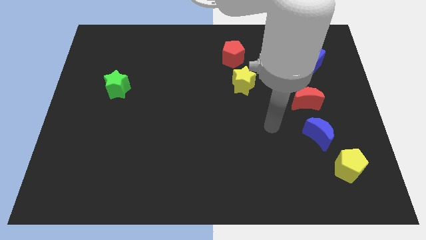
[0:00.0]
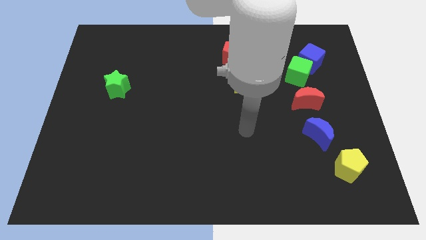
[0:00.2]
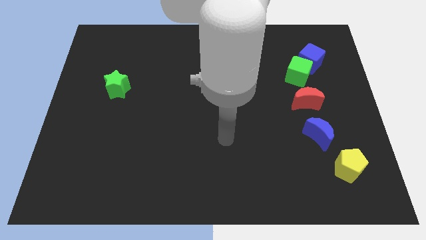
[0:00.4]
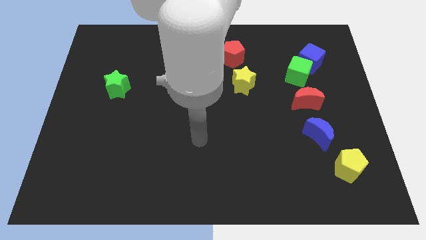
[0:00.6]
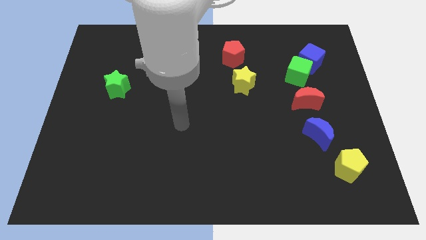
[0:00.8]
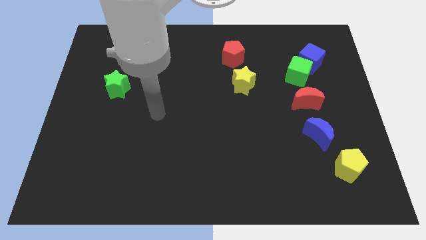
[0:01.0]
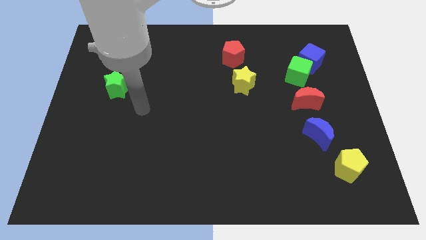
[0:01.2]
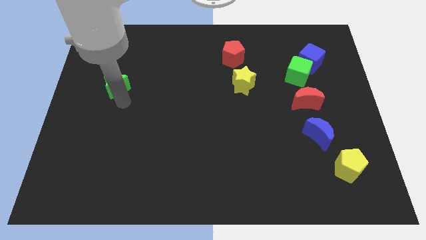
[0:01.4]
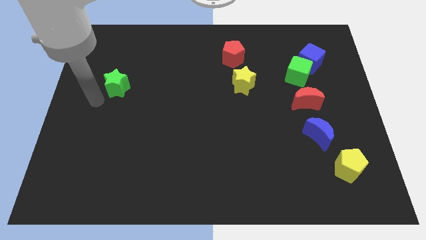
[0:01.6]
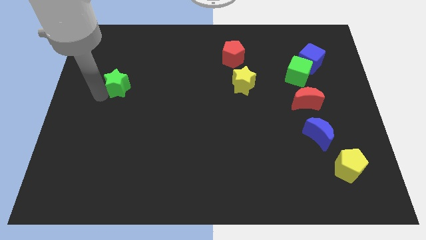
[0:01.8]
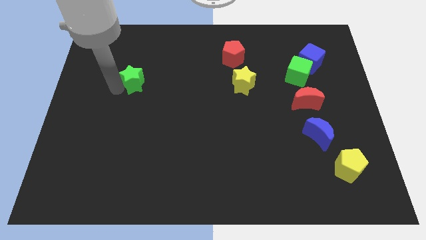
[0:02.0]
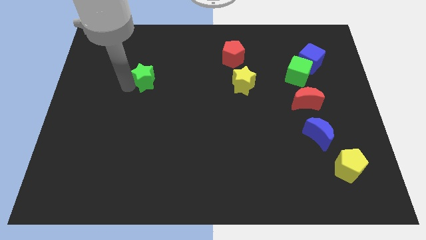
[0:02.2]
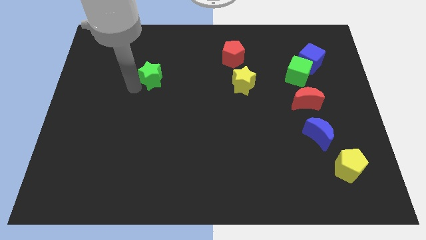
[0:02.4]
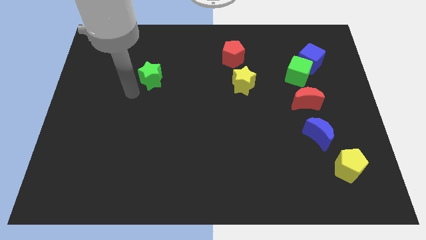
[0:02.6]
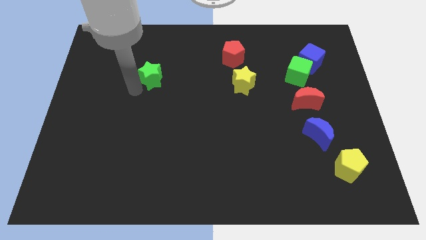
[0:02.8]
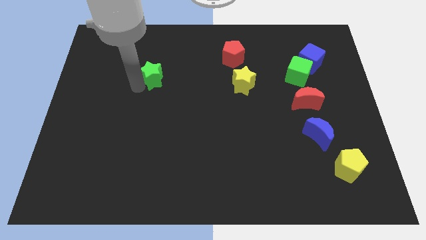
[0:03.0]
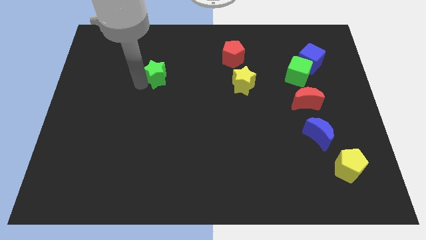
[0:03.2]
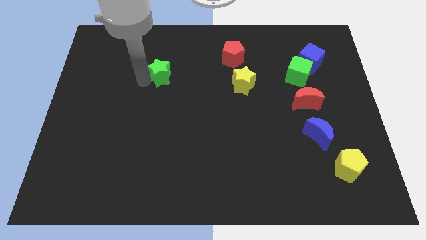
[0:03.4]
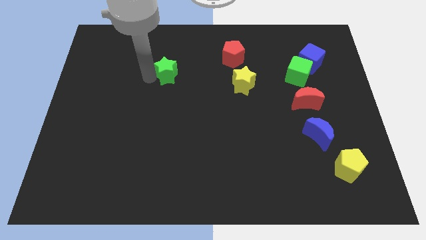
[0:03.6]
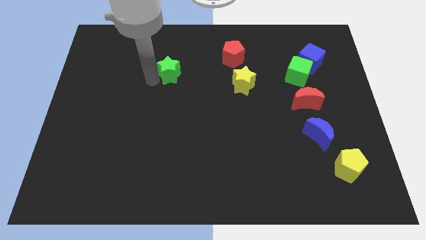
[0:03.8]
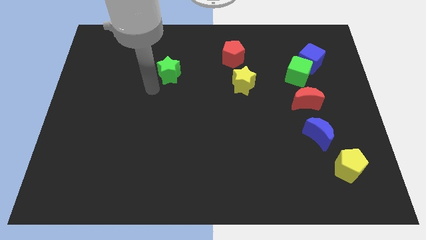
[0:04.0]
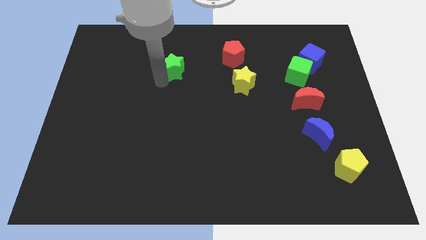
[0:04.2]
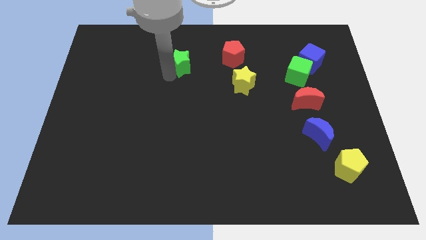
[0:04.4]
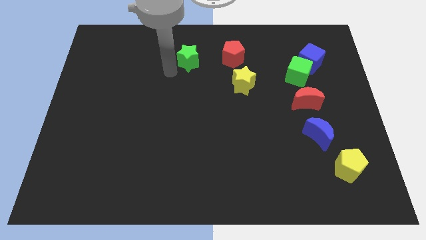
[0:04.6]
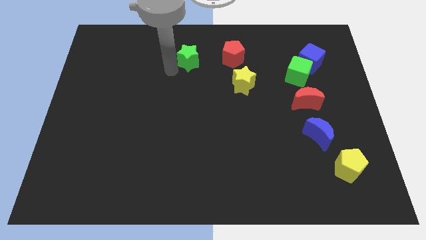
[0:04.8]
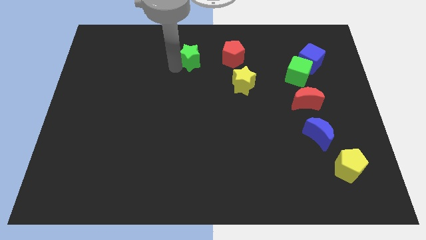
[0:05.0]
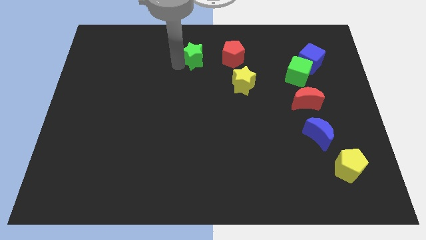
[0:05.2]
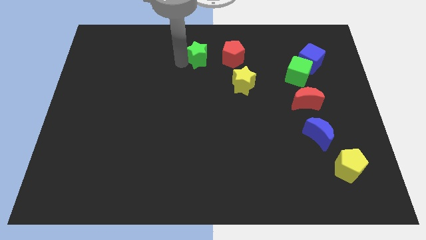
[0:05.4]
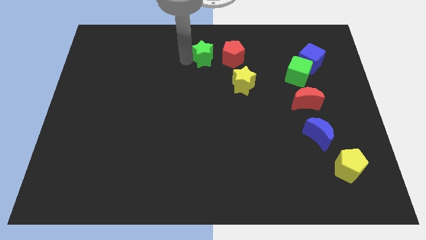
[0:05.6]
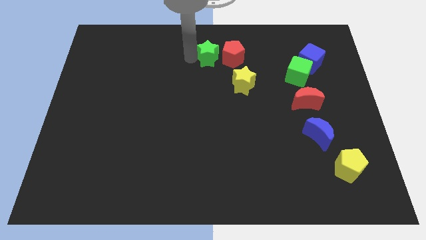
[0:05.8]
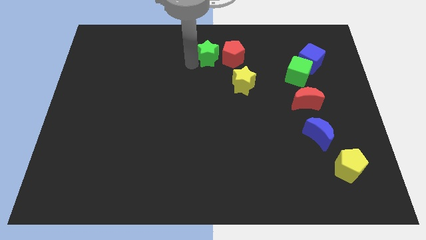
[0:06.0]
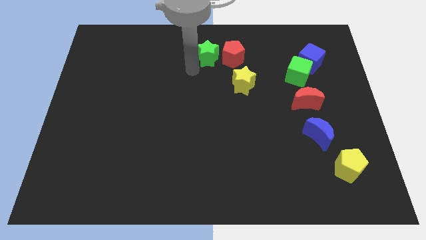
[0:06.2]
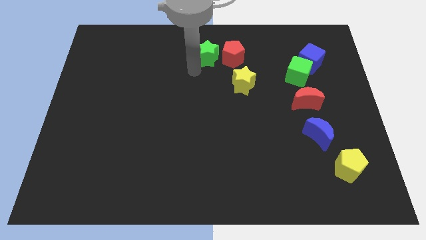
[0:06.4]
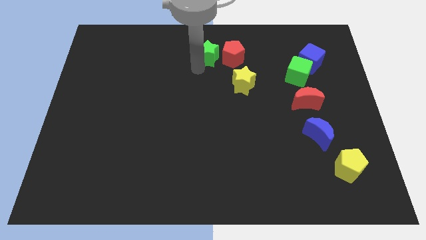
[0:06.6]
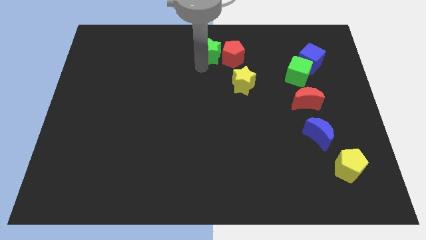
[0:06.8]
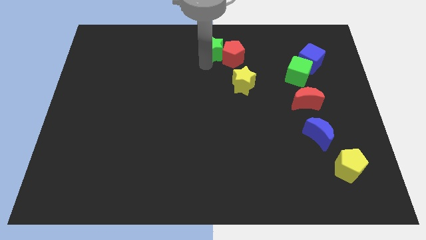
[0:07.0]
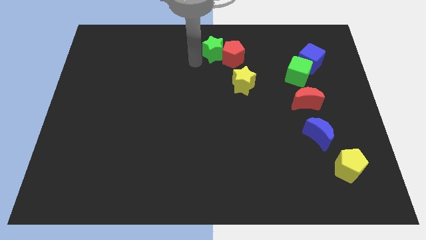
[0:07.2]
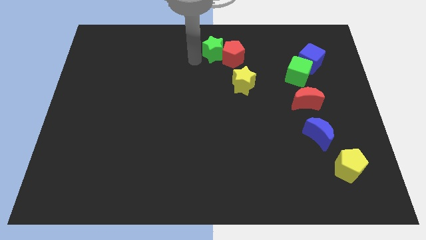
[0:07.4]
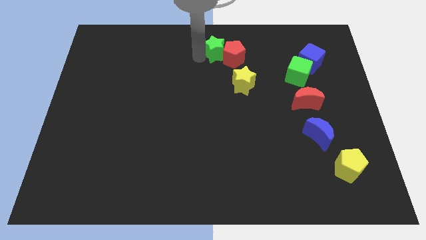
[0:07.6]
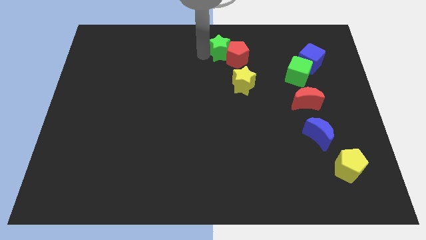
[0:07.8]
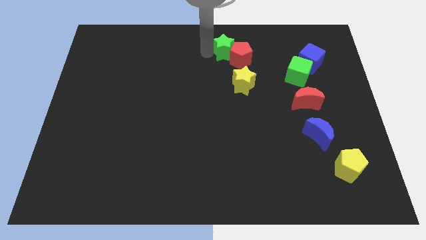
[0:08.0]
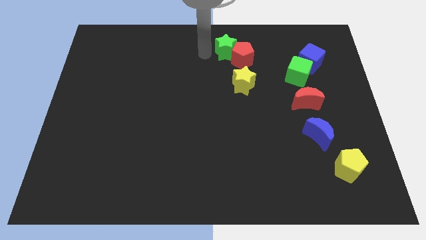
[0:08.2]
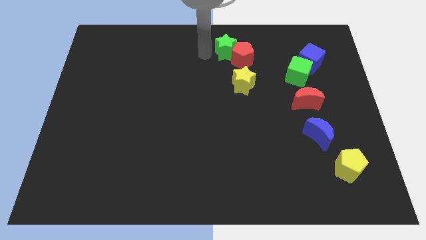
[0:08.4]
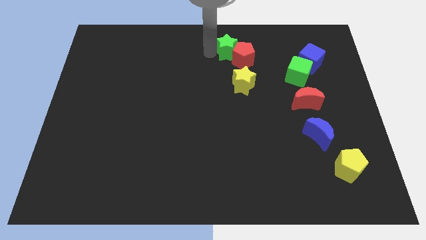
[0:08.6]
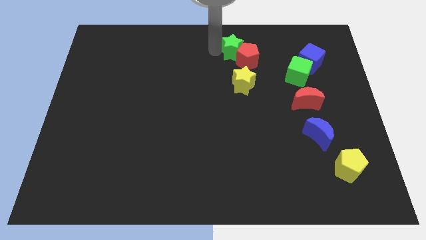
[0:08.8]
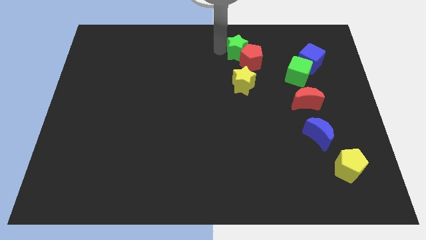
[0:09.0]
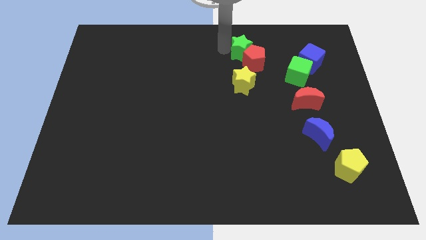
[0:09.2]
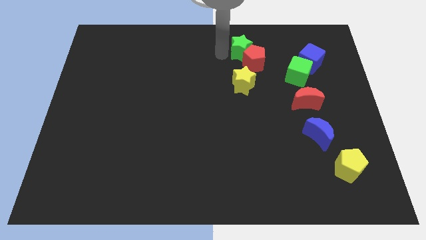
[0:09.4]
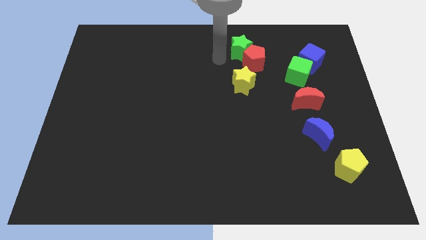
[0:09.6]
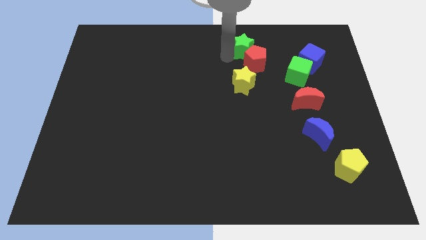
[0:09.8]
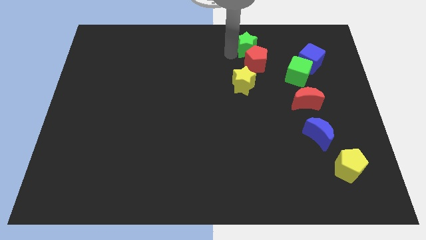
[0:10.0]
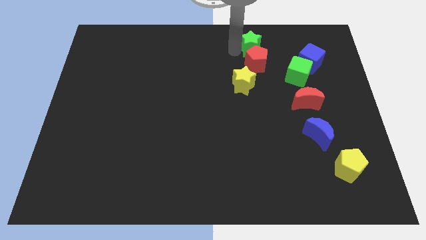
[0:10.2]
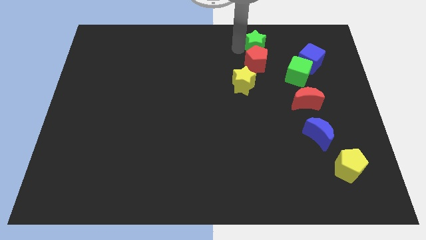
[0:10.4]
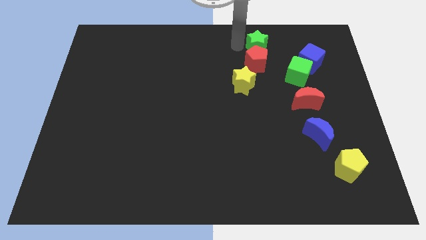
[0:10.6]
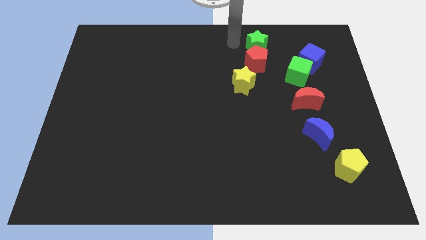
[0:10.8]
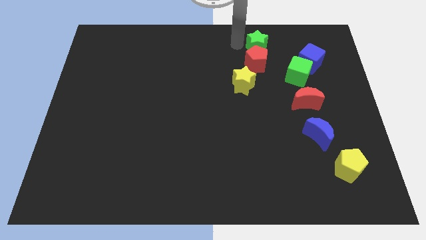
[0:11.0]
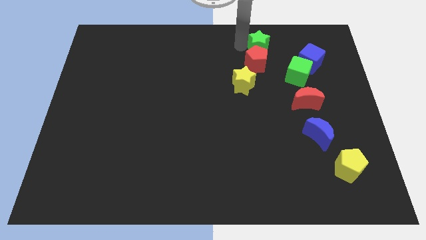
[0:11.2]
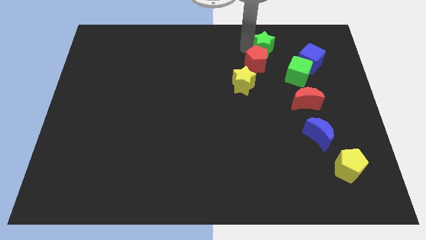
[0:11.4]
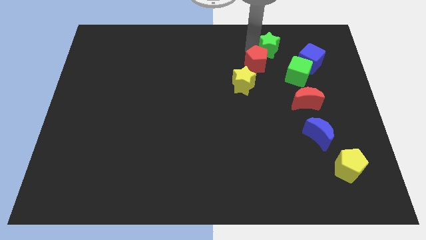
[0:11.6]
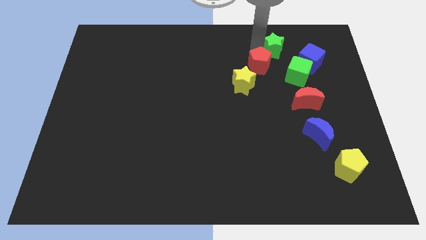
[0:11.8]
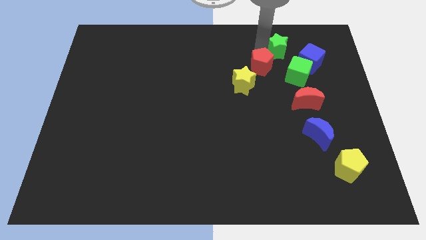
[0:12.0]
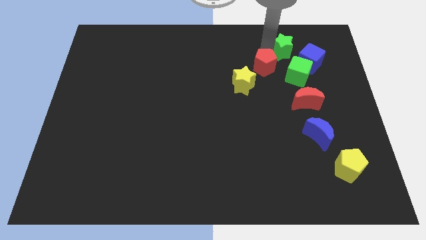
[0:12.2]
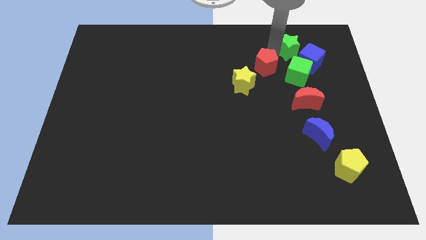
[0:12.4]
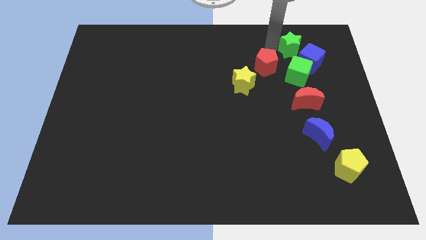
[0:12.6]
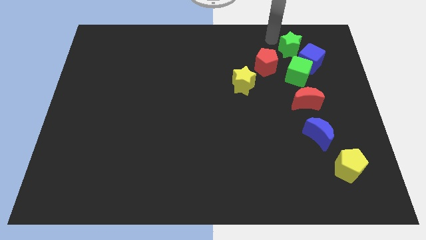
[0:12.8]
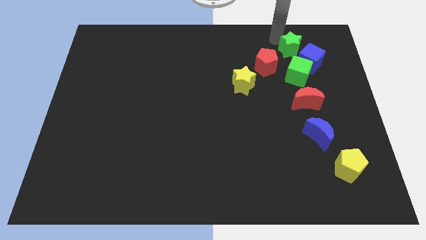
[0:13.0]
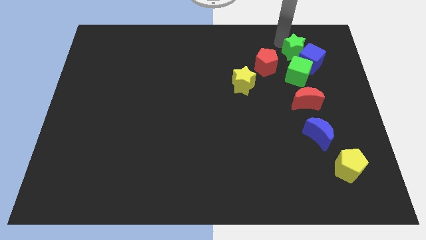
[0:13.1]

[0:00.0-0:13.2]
put the green star to the blue cube

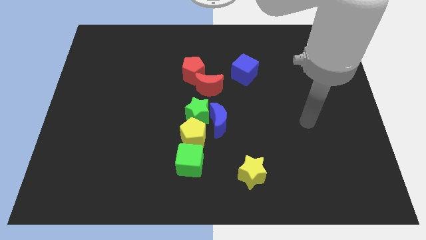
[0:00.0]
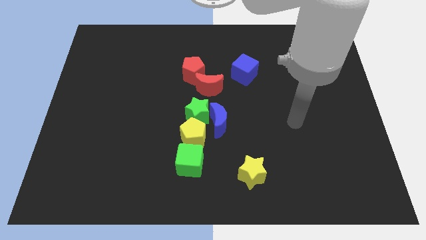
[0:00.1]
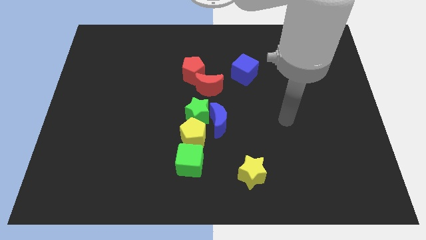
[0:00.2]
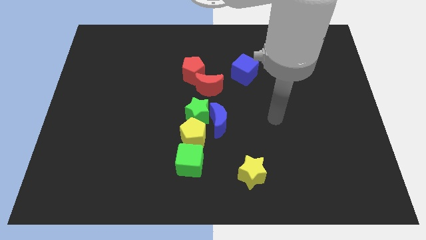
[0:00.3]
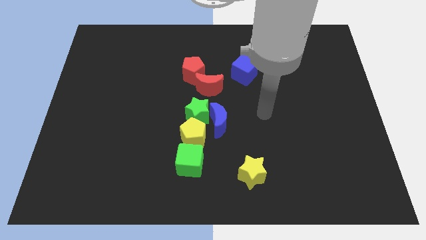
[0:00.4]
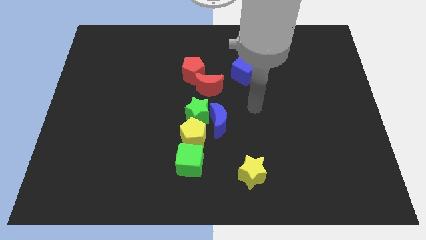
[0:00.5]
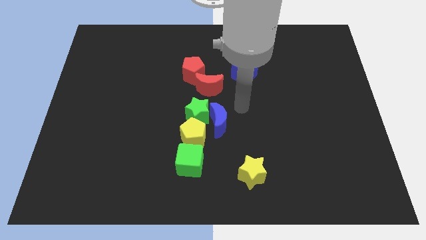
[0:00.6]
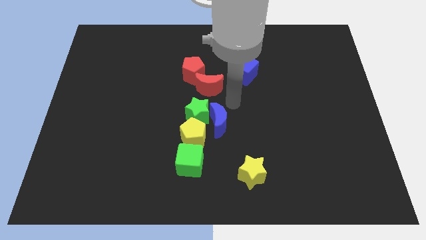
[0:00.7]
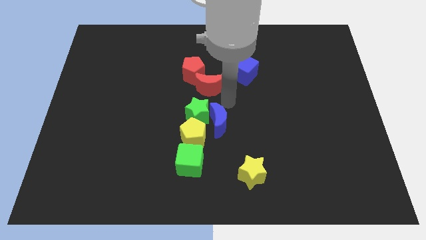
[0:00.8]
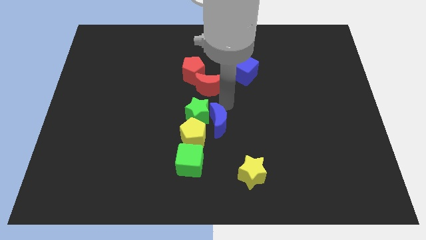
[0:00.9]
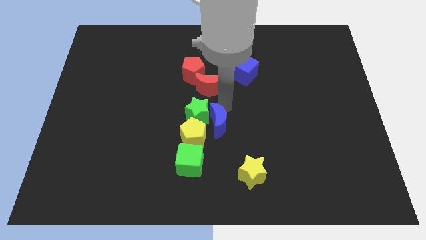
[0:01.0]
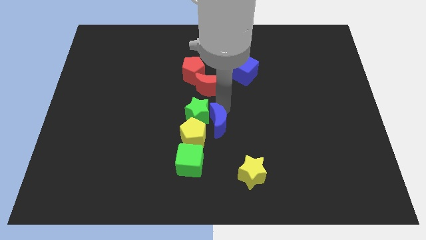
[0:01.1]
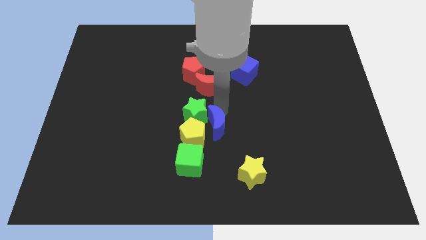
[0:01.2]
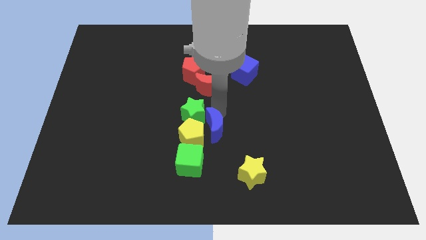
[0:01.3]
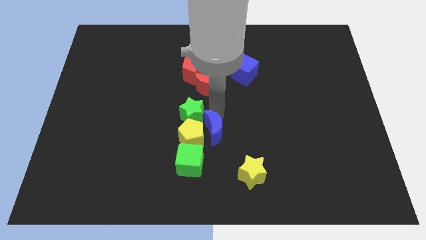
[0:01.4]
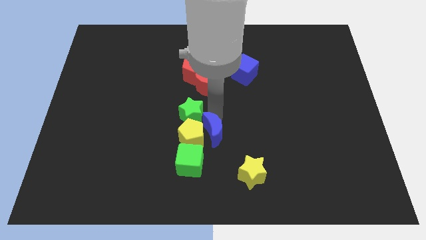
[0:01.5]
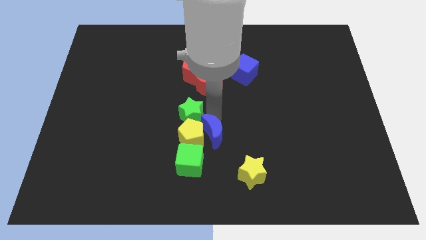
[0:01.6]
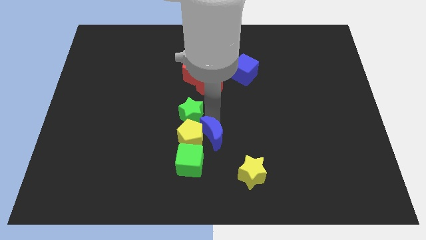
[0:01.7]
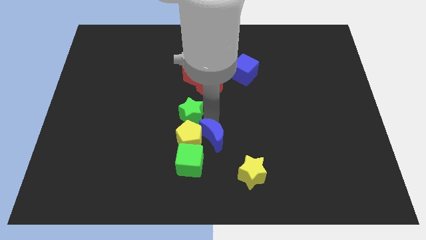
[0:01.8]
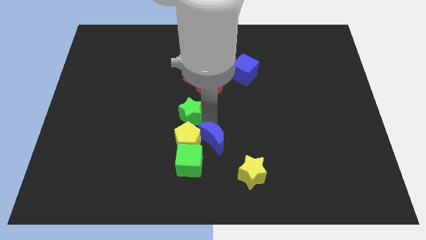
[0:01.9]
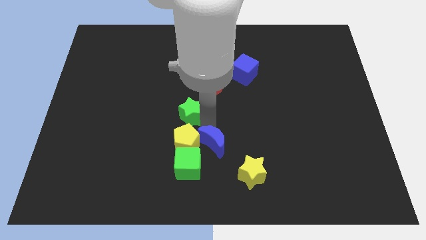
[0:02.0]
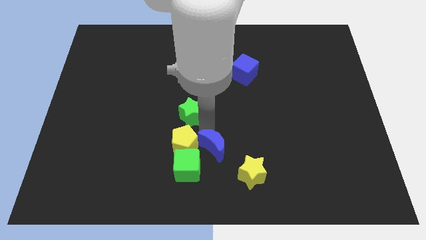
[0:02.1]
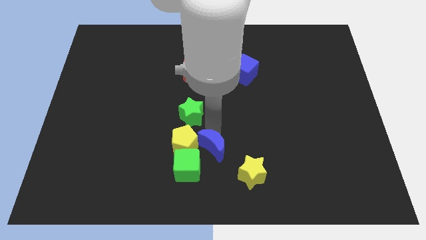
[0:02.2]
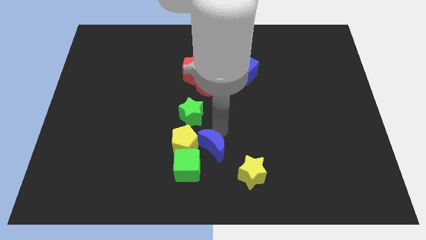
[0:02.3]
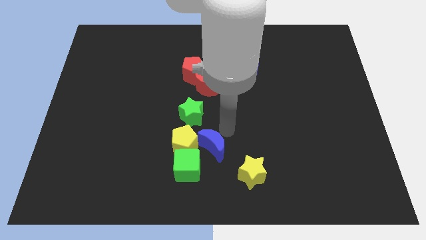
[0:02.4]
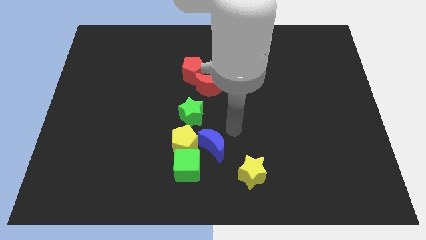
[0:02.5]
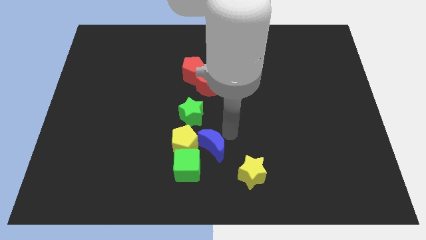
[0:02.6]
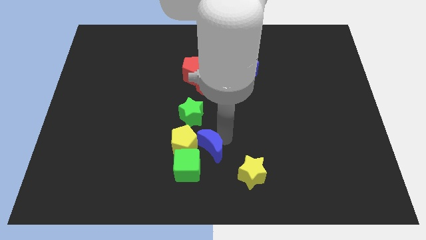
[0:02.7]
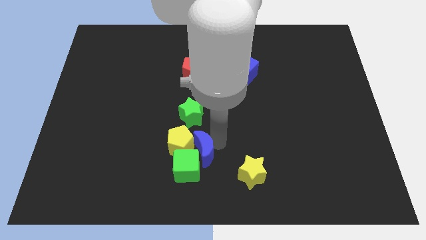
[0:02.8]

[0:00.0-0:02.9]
slide the blue moon close to the green cube
